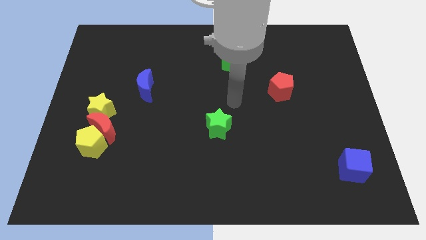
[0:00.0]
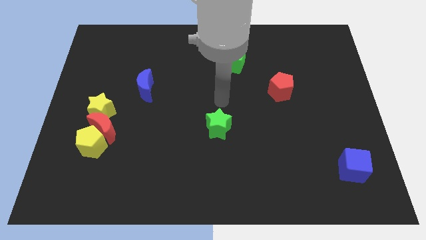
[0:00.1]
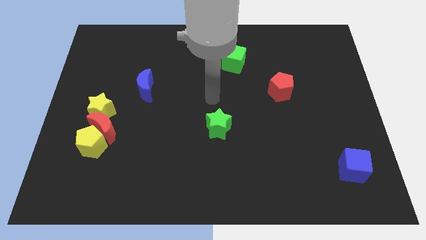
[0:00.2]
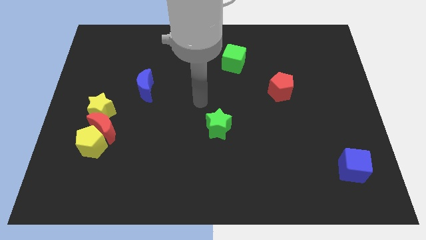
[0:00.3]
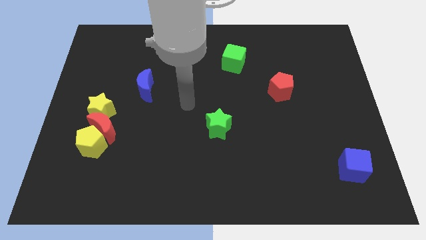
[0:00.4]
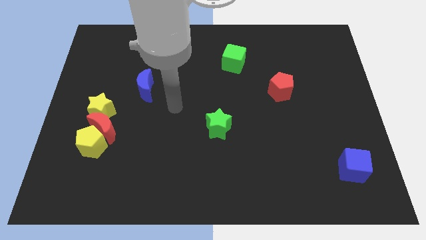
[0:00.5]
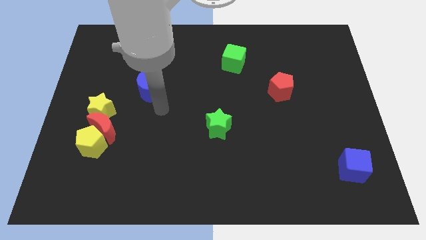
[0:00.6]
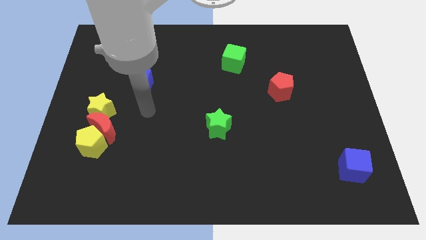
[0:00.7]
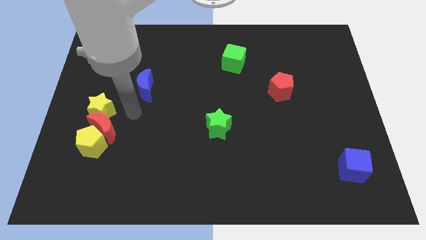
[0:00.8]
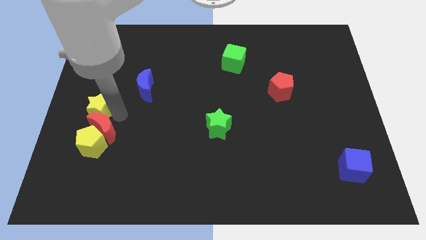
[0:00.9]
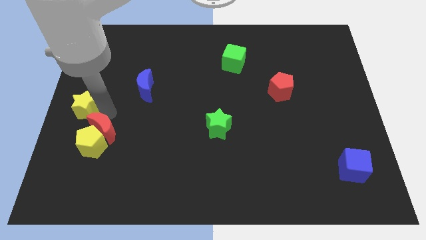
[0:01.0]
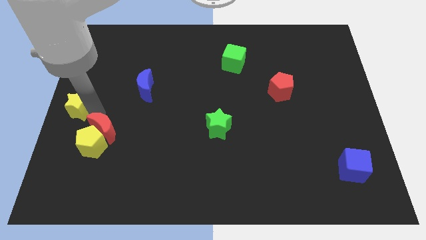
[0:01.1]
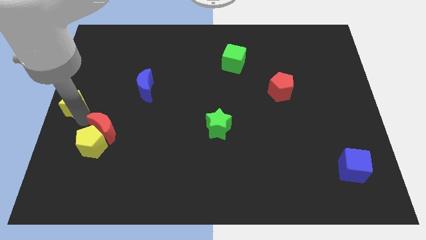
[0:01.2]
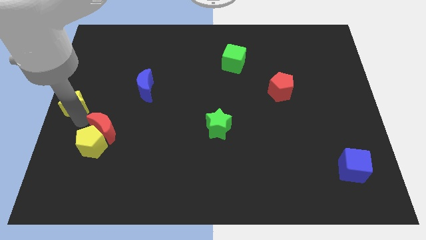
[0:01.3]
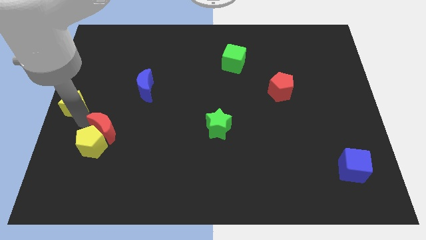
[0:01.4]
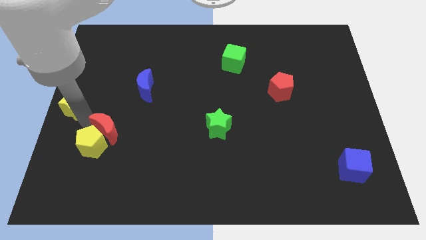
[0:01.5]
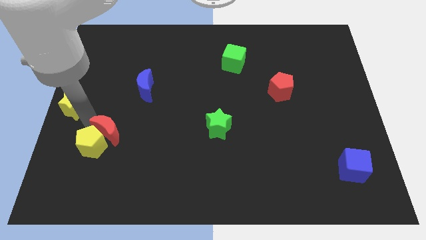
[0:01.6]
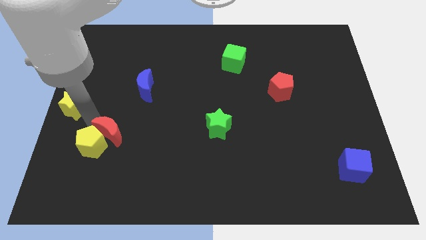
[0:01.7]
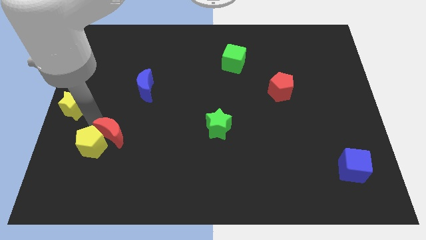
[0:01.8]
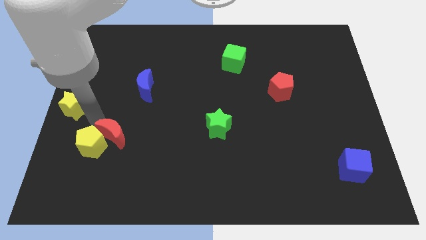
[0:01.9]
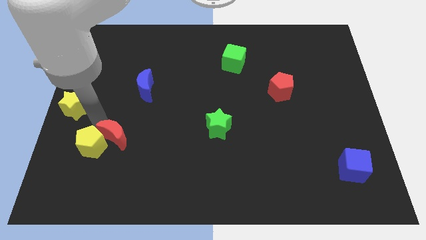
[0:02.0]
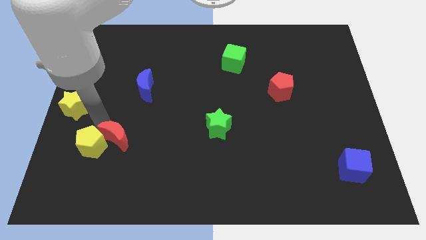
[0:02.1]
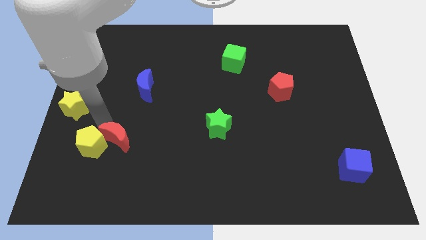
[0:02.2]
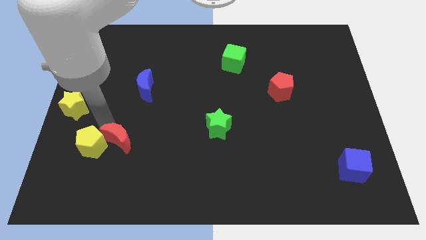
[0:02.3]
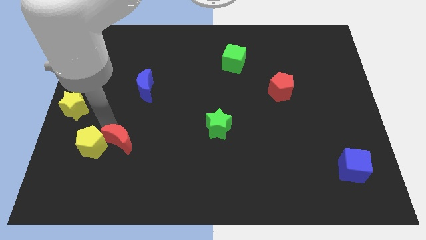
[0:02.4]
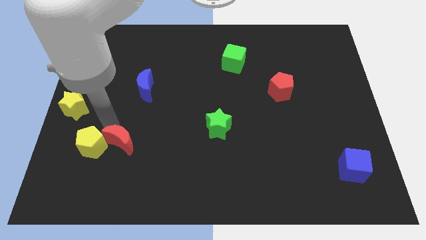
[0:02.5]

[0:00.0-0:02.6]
move the red moon away from the yellow pentagon and yellow star

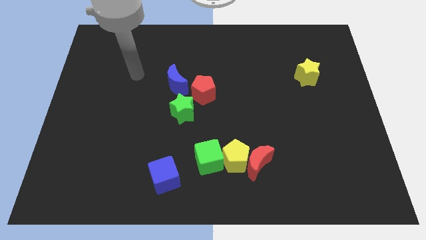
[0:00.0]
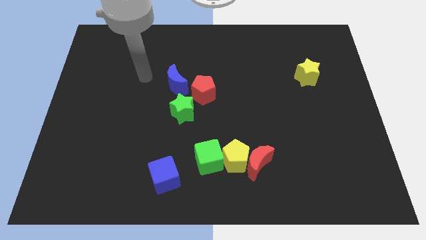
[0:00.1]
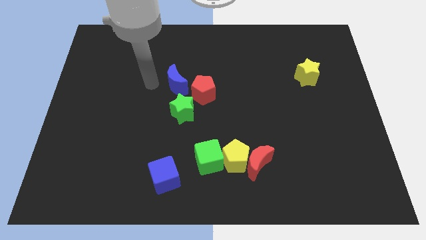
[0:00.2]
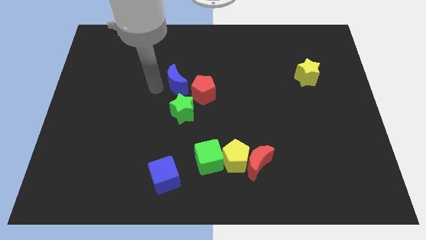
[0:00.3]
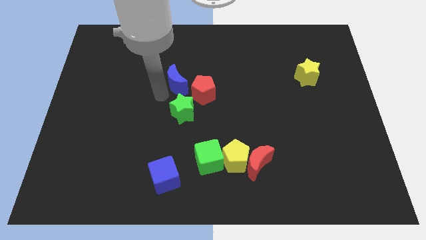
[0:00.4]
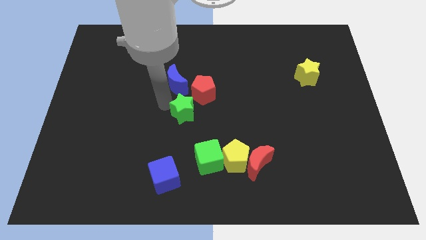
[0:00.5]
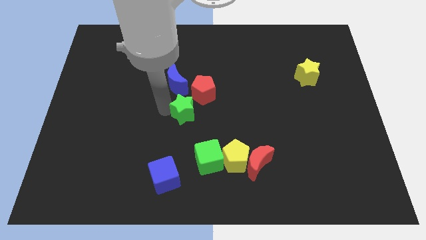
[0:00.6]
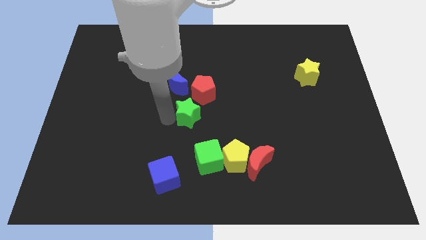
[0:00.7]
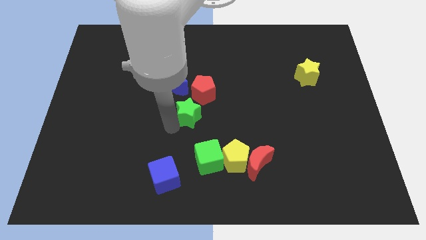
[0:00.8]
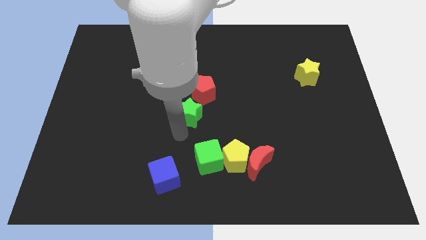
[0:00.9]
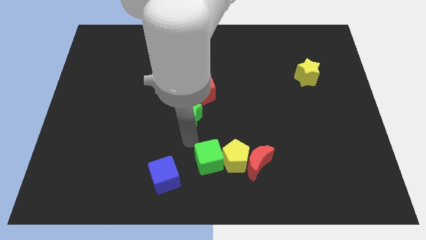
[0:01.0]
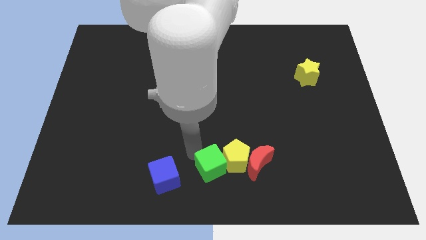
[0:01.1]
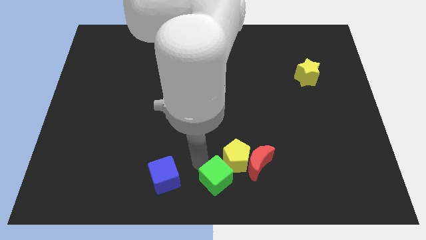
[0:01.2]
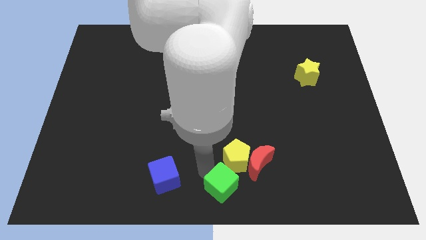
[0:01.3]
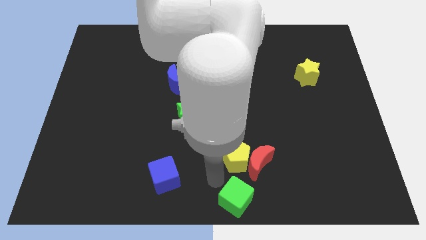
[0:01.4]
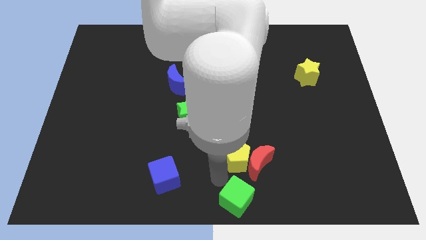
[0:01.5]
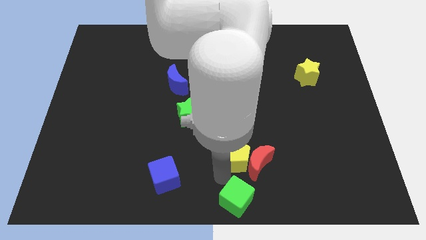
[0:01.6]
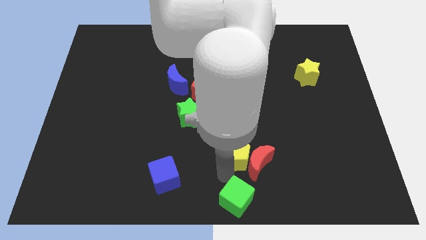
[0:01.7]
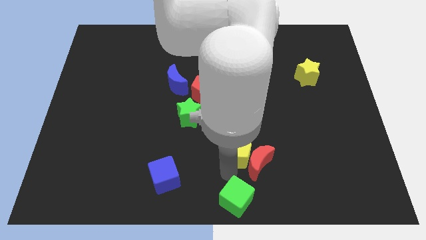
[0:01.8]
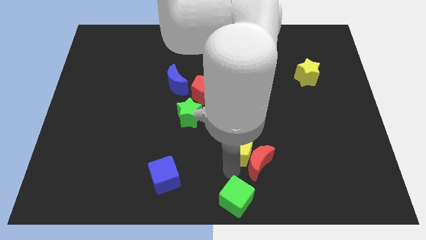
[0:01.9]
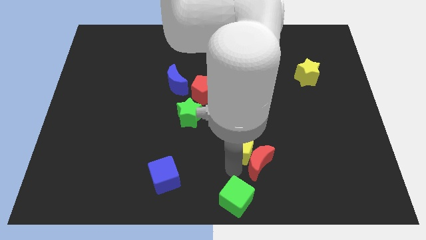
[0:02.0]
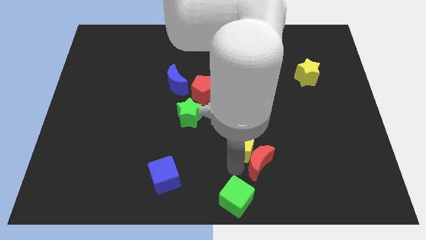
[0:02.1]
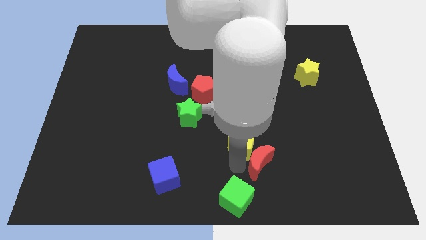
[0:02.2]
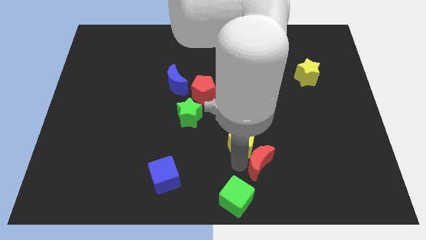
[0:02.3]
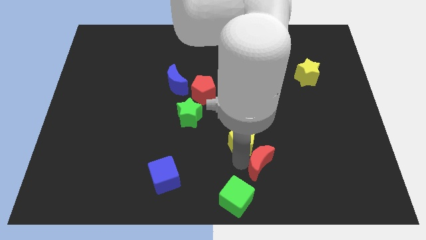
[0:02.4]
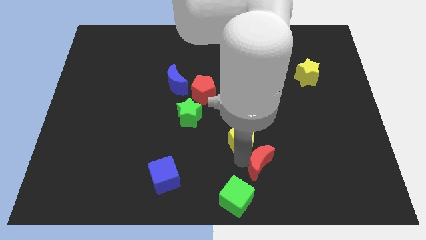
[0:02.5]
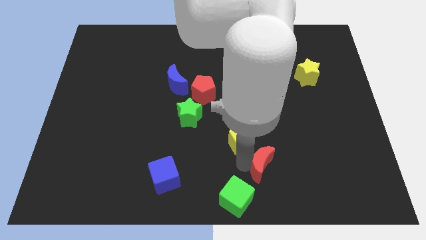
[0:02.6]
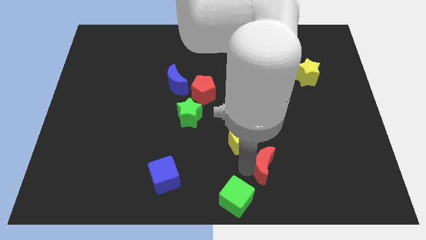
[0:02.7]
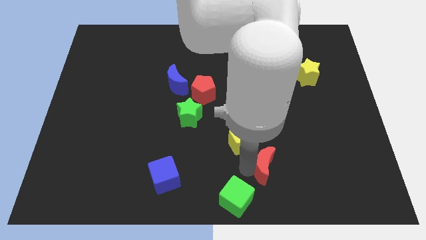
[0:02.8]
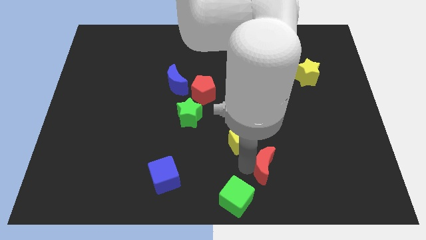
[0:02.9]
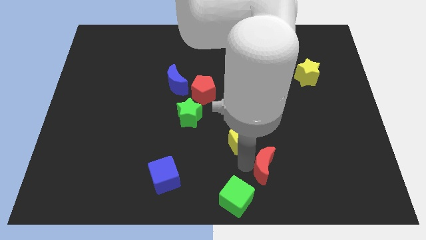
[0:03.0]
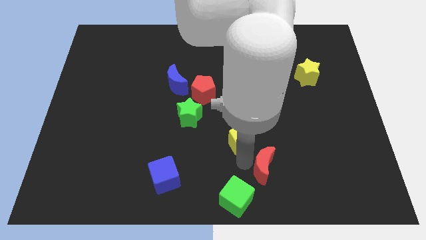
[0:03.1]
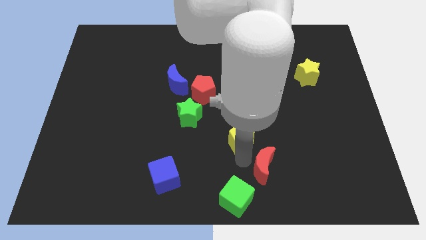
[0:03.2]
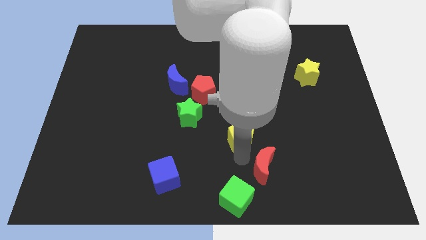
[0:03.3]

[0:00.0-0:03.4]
pull the yellow pentagon apart from the red moon and green cube

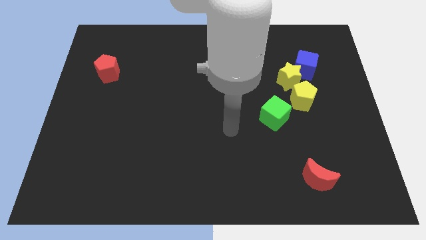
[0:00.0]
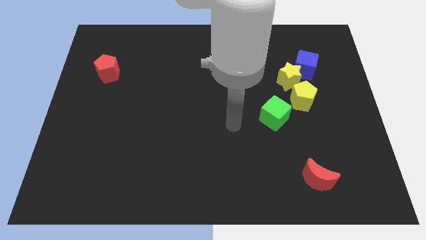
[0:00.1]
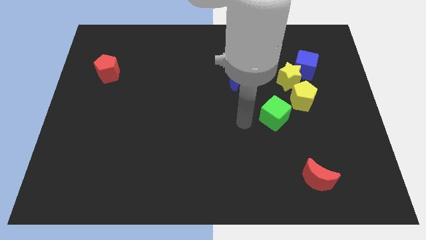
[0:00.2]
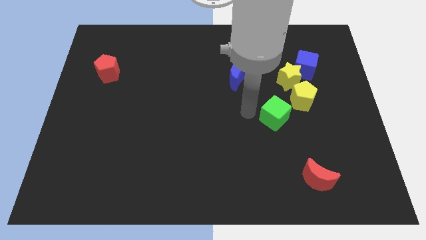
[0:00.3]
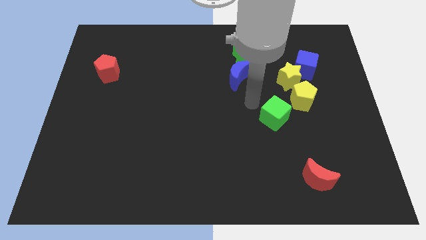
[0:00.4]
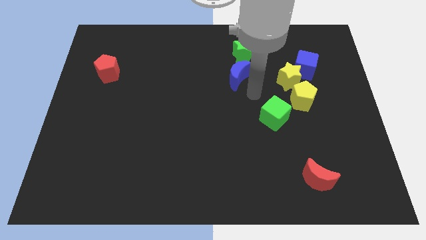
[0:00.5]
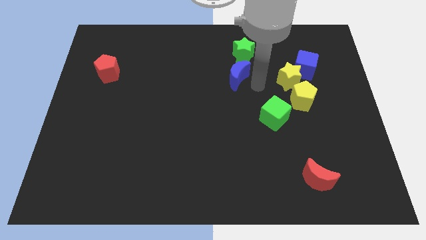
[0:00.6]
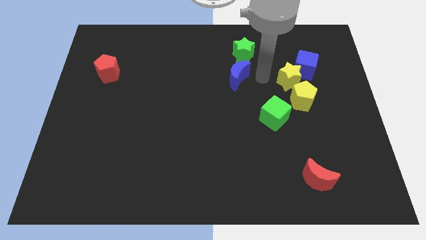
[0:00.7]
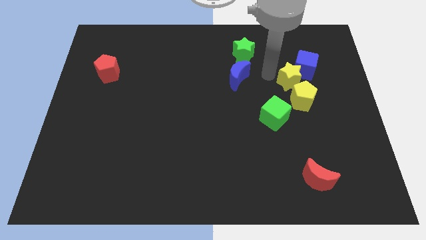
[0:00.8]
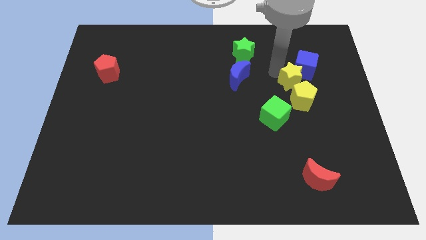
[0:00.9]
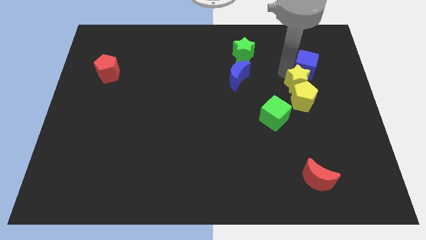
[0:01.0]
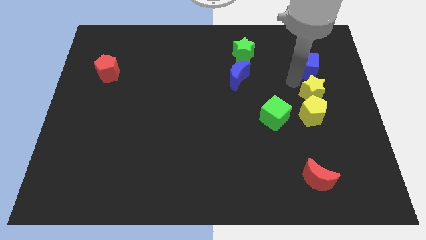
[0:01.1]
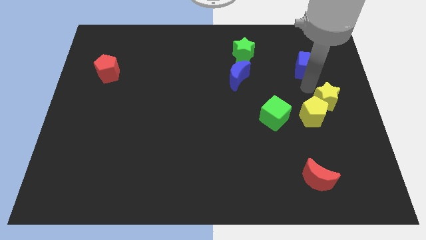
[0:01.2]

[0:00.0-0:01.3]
separate the blue cube from the yellow star

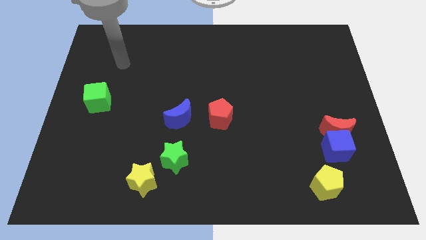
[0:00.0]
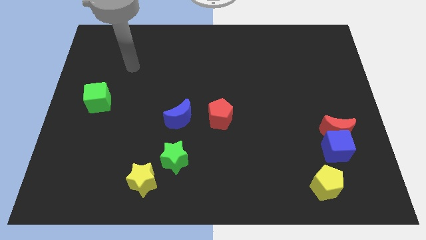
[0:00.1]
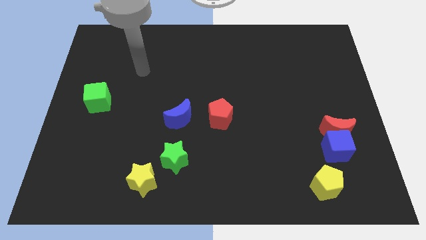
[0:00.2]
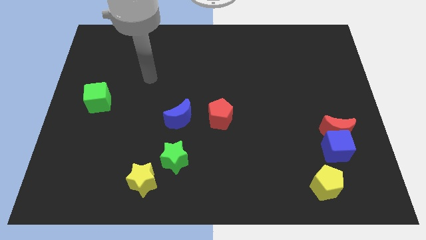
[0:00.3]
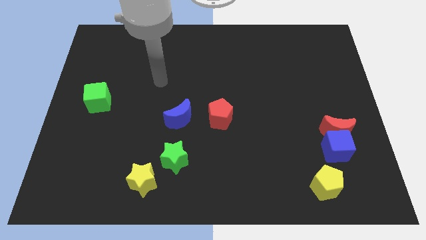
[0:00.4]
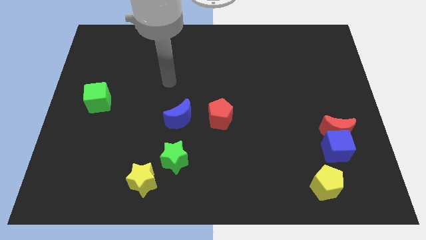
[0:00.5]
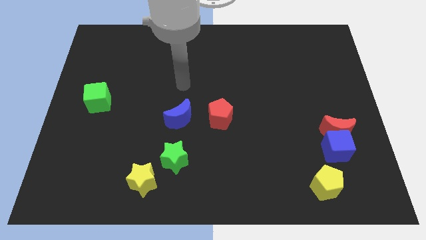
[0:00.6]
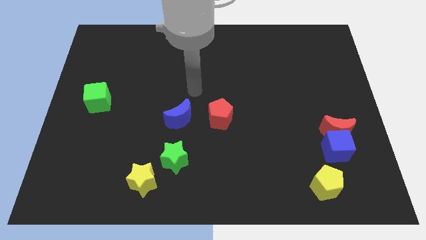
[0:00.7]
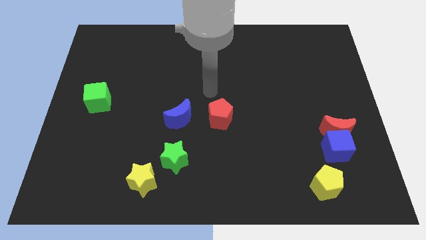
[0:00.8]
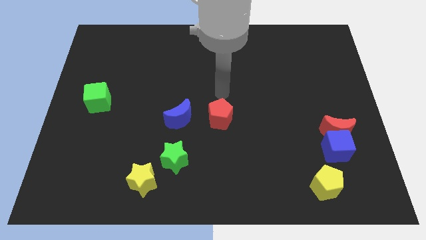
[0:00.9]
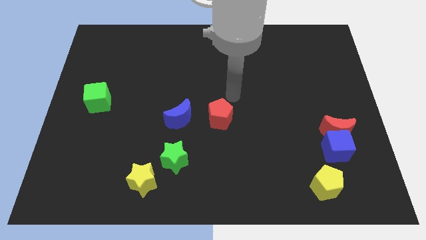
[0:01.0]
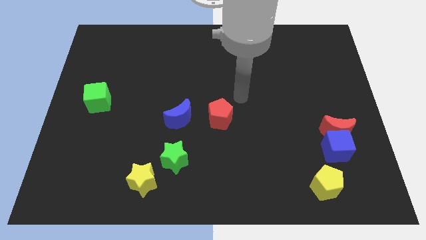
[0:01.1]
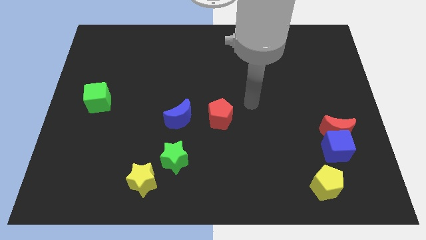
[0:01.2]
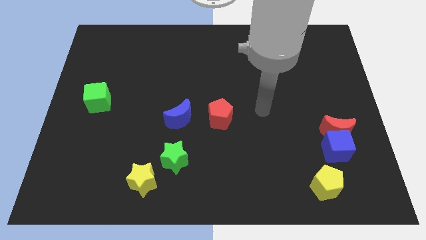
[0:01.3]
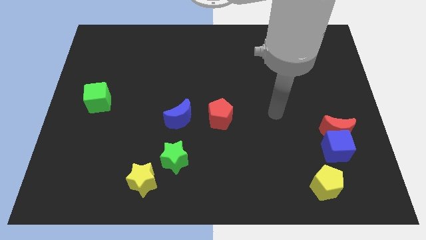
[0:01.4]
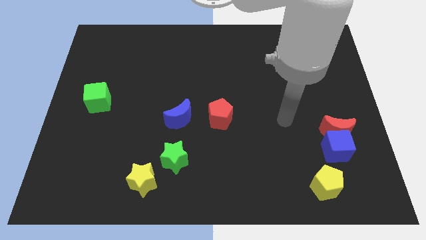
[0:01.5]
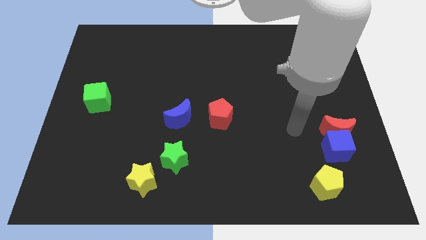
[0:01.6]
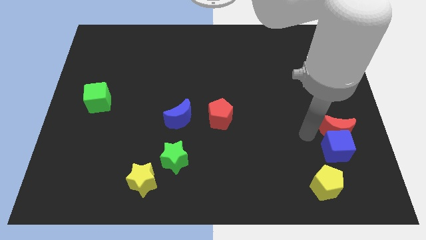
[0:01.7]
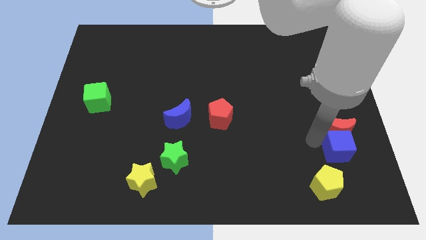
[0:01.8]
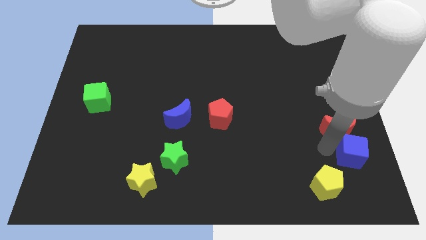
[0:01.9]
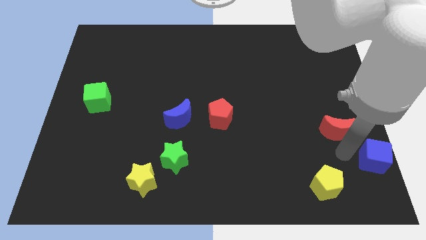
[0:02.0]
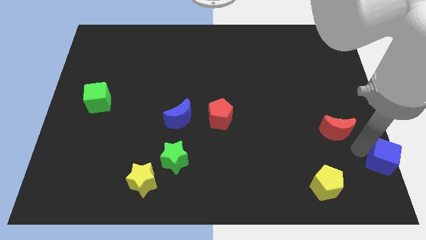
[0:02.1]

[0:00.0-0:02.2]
separate the red moon from the blue cube
